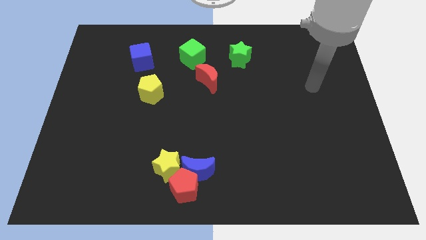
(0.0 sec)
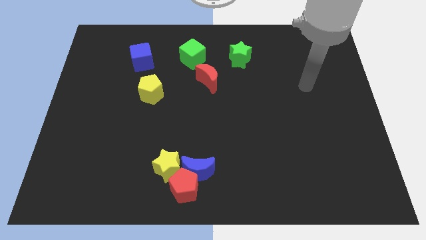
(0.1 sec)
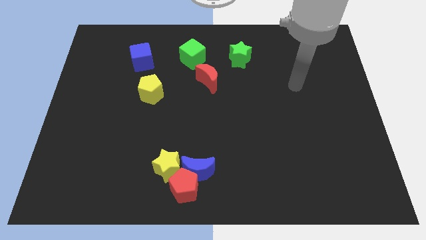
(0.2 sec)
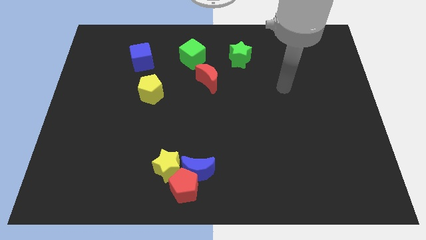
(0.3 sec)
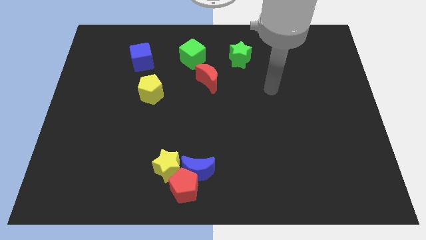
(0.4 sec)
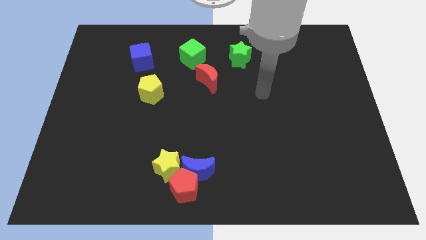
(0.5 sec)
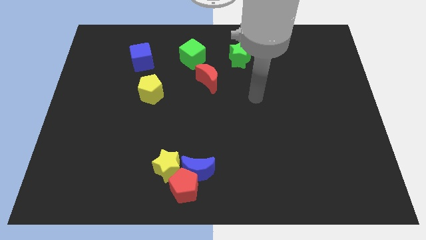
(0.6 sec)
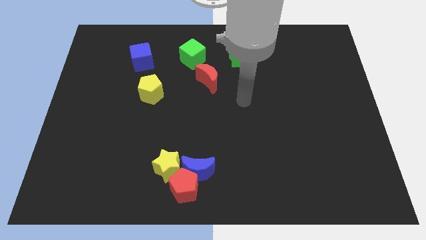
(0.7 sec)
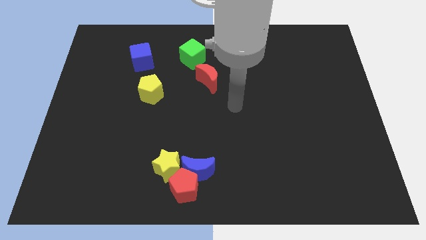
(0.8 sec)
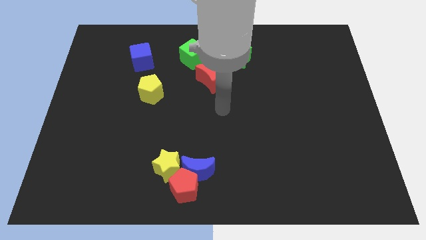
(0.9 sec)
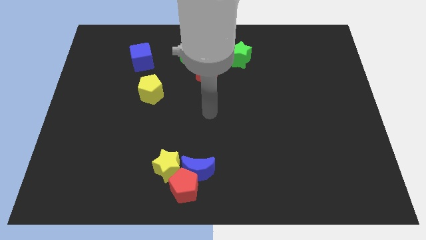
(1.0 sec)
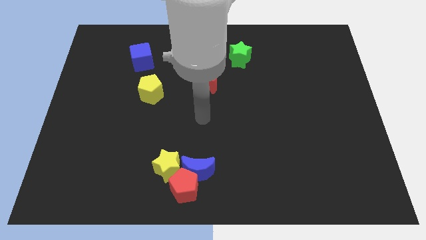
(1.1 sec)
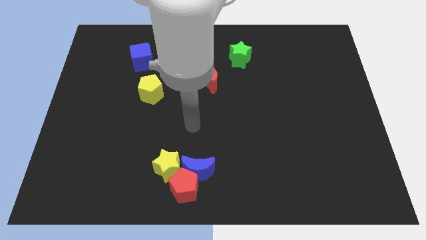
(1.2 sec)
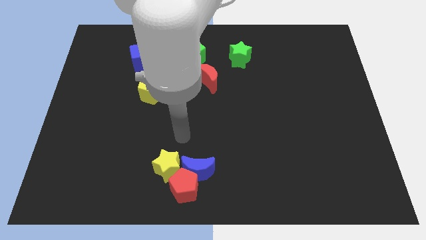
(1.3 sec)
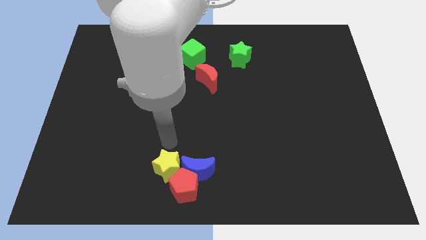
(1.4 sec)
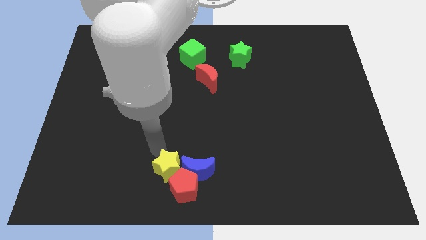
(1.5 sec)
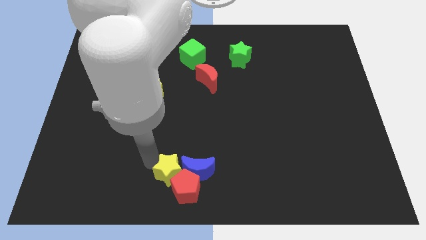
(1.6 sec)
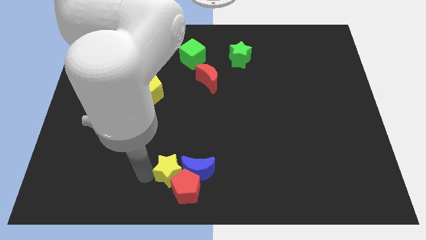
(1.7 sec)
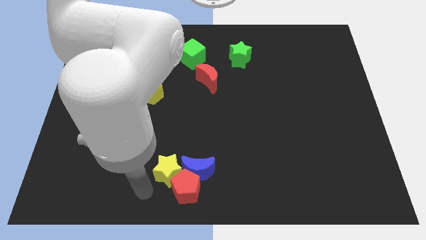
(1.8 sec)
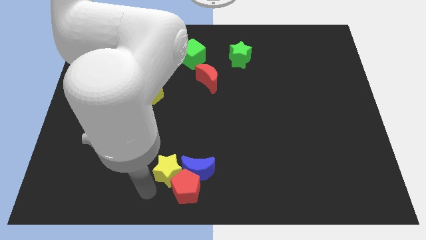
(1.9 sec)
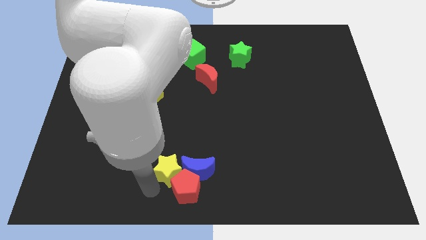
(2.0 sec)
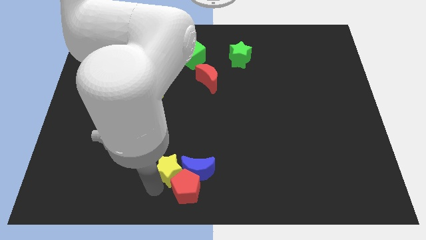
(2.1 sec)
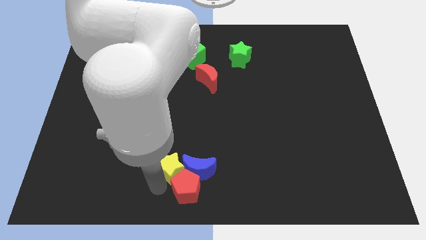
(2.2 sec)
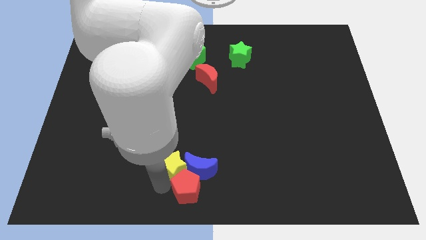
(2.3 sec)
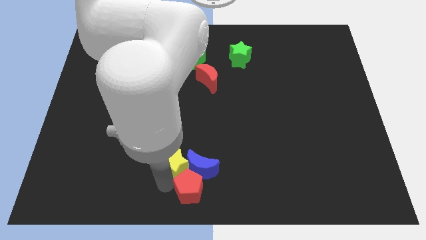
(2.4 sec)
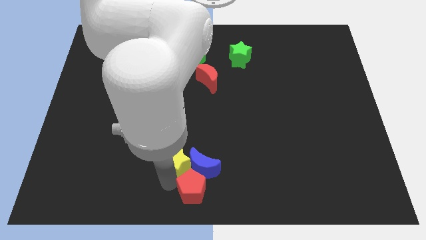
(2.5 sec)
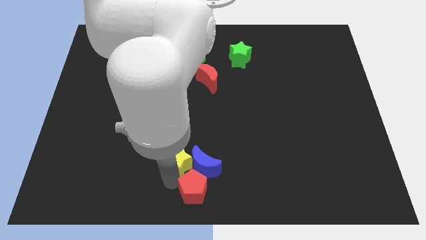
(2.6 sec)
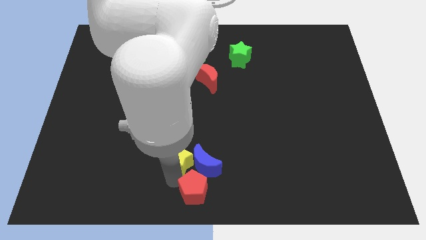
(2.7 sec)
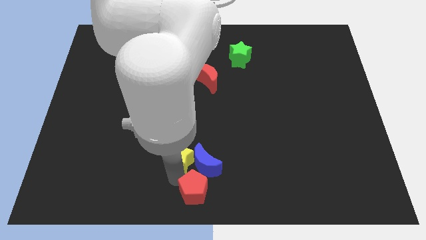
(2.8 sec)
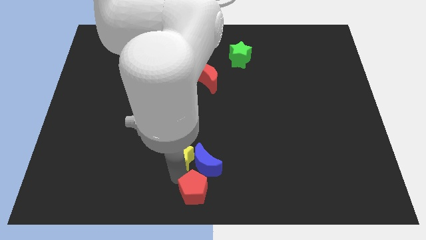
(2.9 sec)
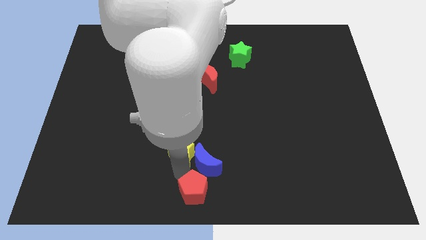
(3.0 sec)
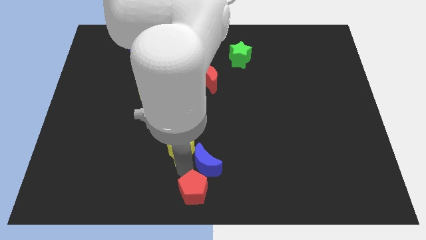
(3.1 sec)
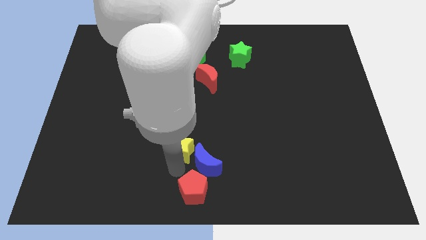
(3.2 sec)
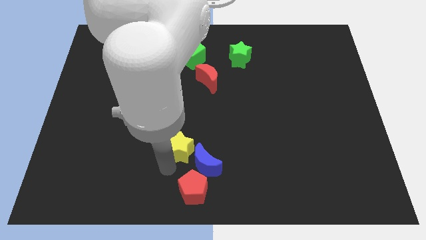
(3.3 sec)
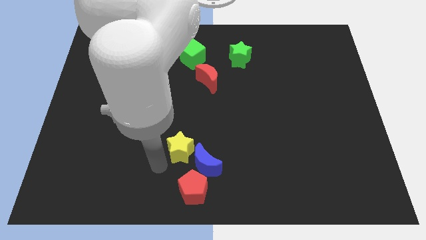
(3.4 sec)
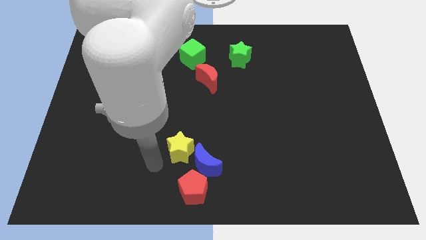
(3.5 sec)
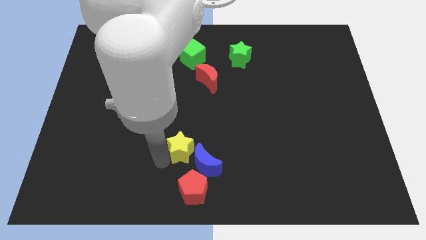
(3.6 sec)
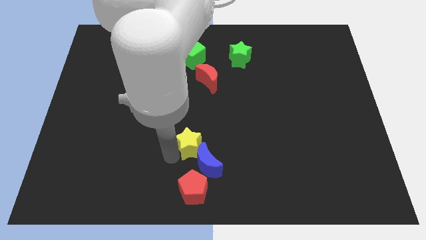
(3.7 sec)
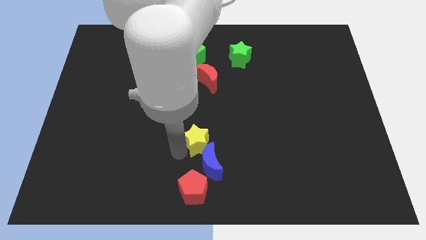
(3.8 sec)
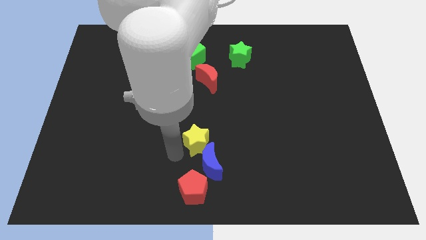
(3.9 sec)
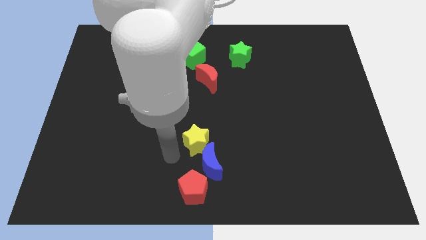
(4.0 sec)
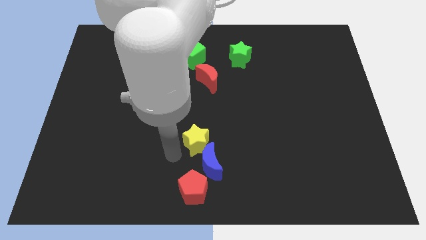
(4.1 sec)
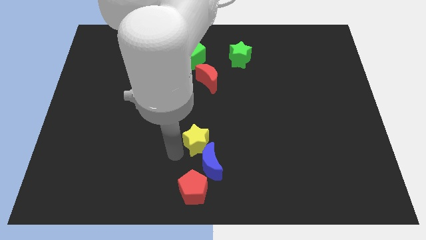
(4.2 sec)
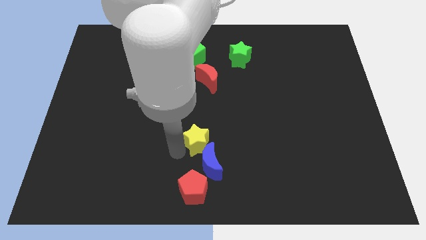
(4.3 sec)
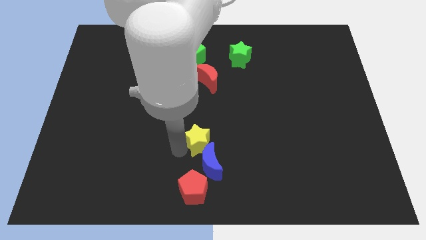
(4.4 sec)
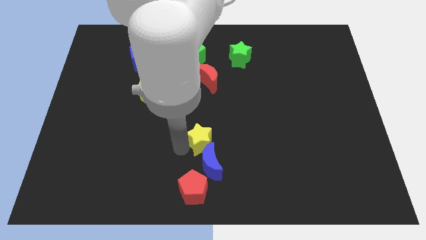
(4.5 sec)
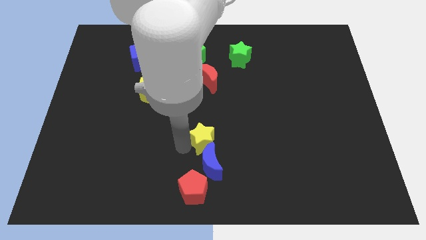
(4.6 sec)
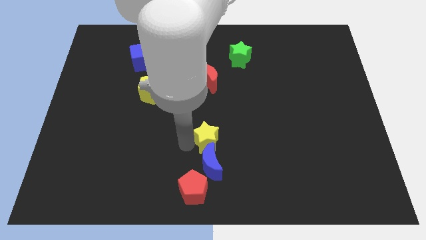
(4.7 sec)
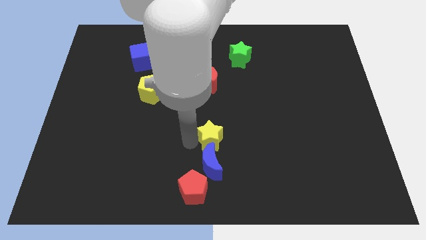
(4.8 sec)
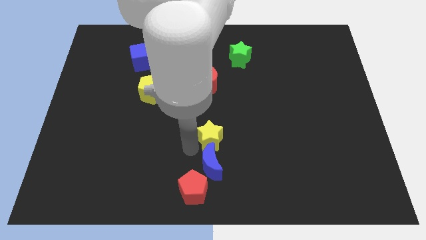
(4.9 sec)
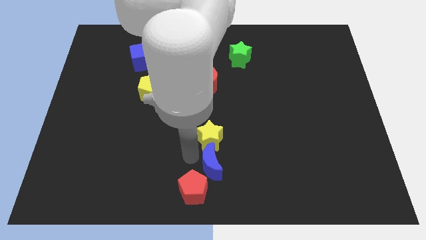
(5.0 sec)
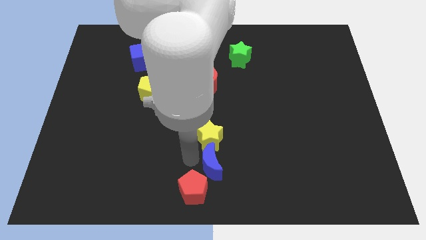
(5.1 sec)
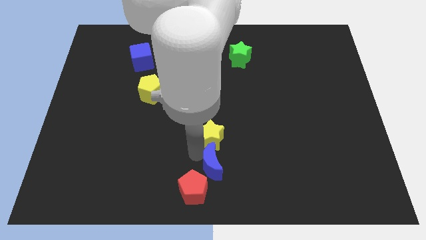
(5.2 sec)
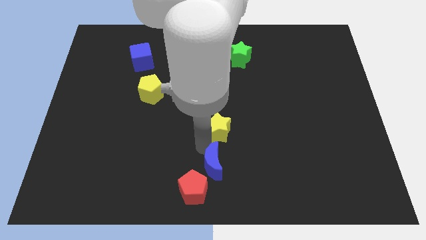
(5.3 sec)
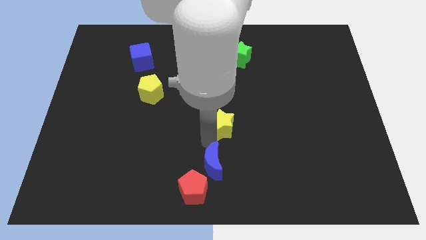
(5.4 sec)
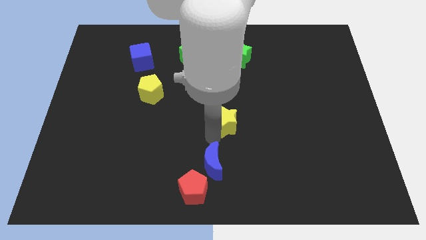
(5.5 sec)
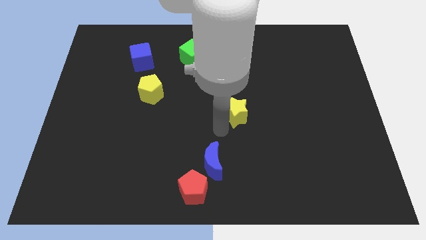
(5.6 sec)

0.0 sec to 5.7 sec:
move the yellow star up and then to the right

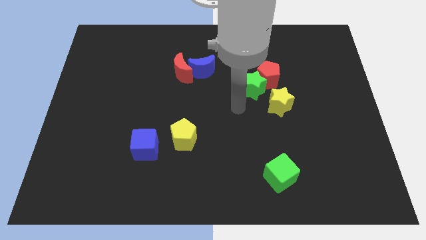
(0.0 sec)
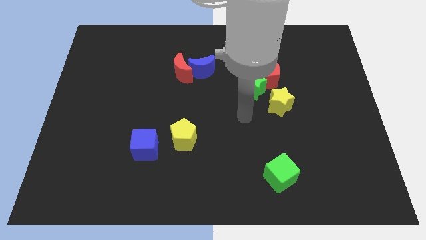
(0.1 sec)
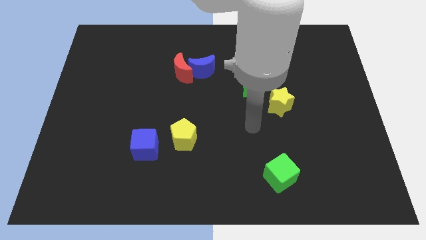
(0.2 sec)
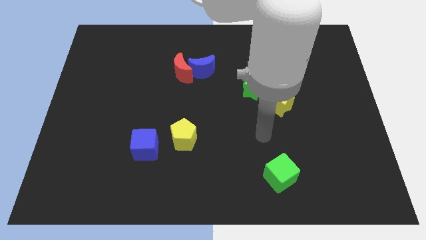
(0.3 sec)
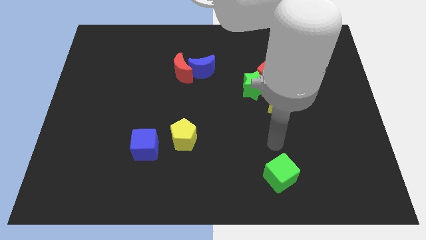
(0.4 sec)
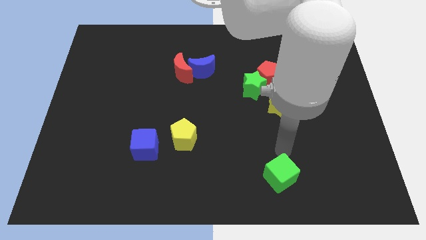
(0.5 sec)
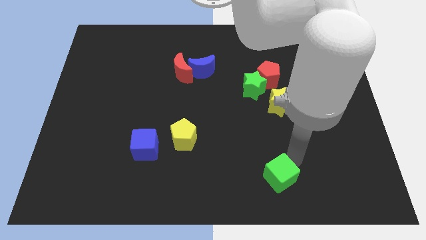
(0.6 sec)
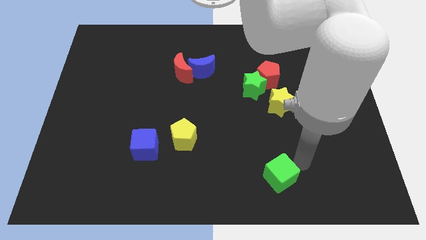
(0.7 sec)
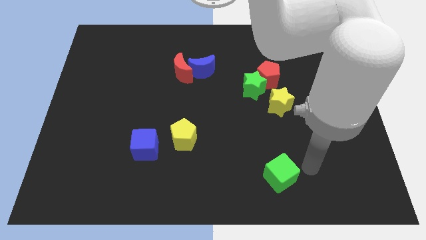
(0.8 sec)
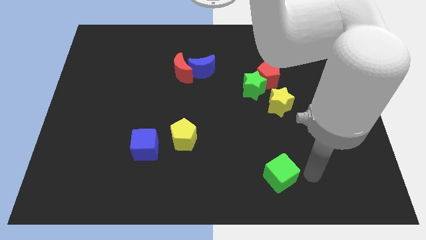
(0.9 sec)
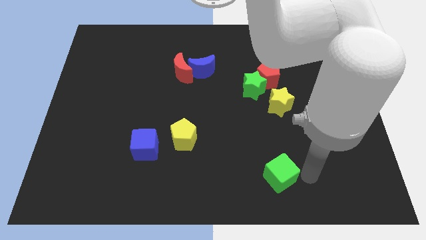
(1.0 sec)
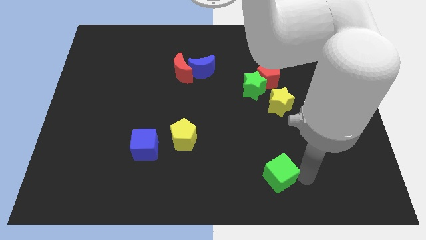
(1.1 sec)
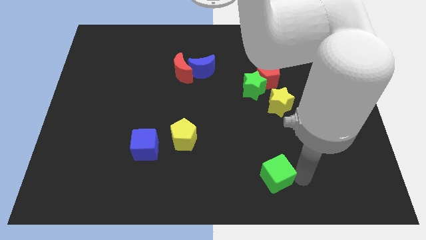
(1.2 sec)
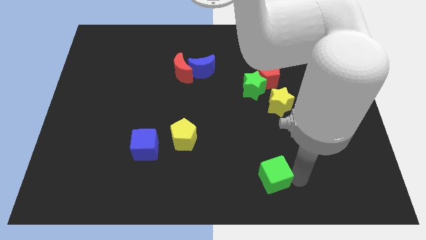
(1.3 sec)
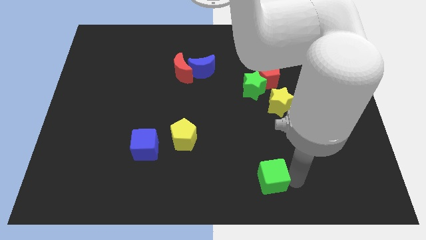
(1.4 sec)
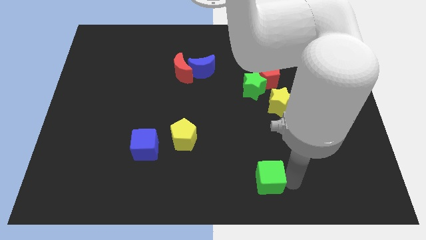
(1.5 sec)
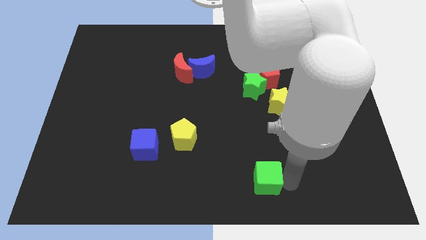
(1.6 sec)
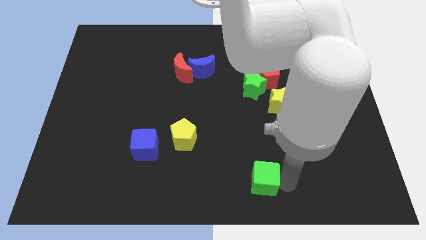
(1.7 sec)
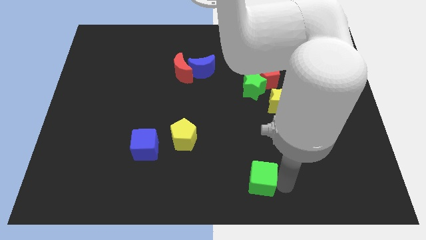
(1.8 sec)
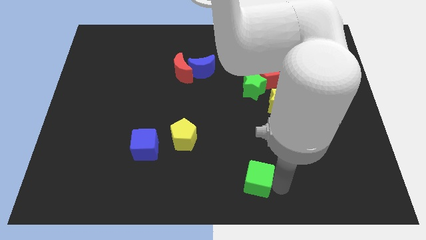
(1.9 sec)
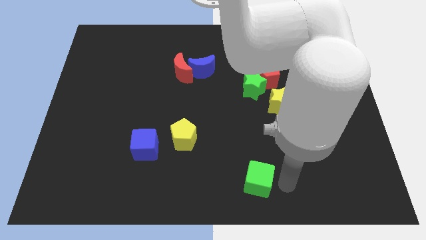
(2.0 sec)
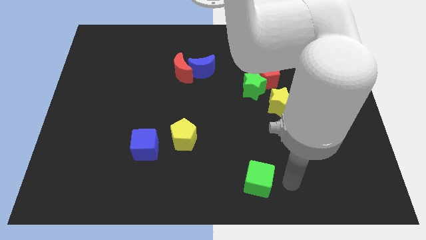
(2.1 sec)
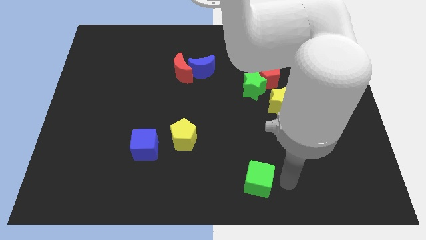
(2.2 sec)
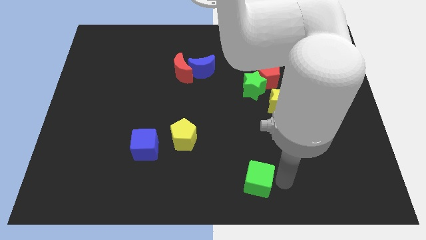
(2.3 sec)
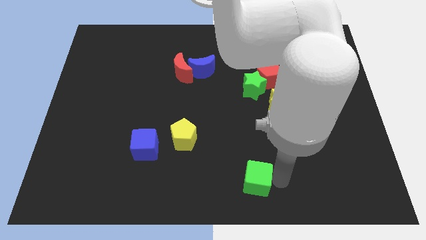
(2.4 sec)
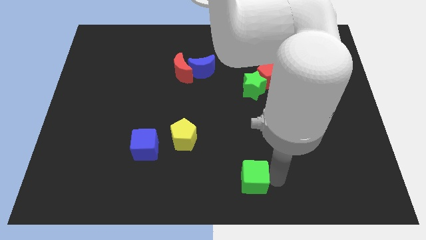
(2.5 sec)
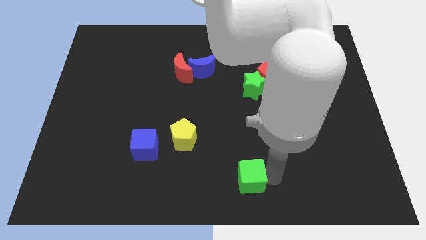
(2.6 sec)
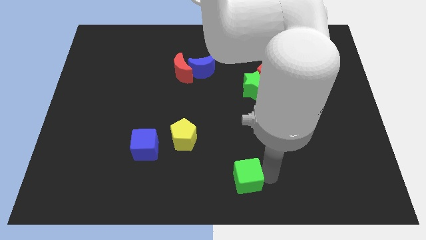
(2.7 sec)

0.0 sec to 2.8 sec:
slide the green cube to the left somewhat
